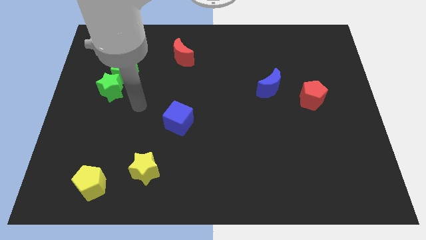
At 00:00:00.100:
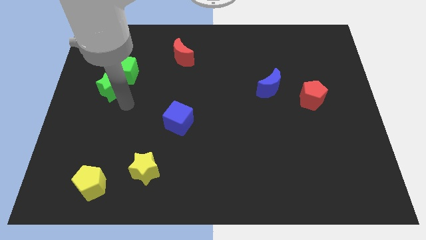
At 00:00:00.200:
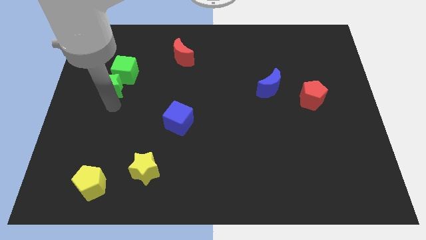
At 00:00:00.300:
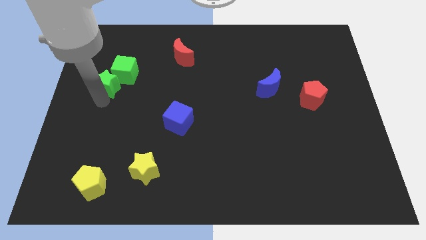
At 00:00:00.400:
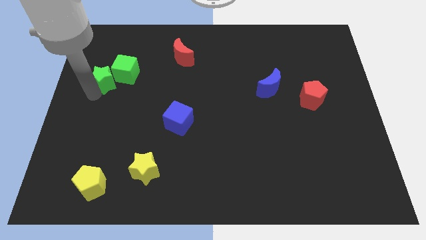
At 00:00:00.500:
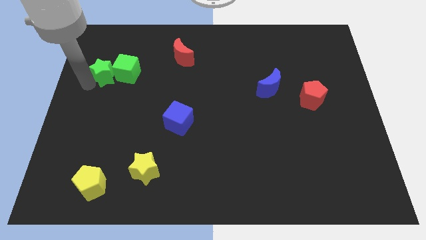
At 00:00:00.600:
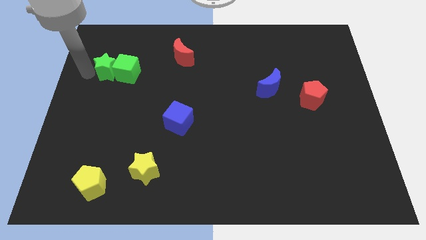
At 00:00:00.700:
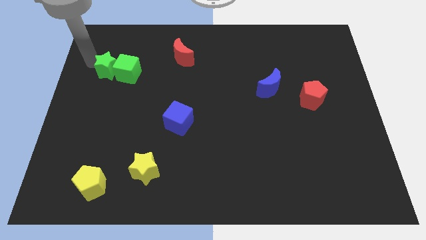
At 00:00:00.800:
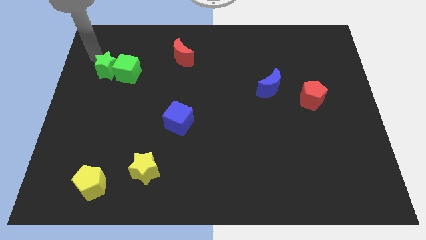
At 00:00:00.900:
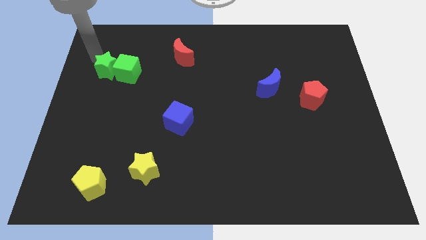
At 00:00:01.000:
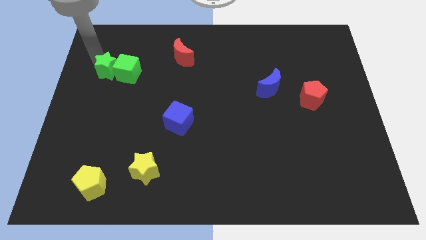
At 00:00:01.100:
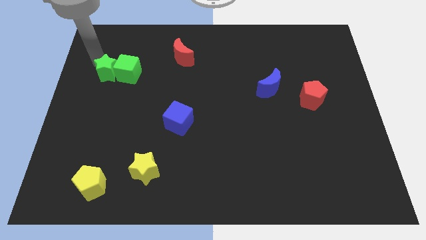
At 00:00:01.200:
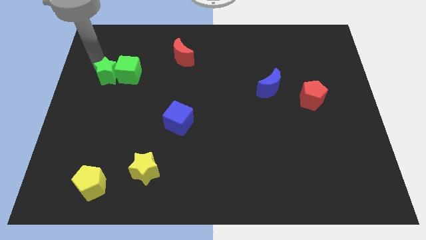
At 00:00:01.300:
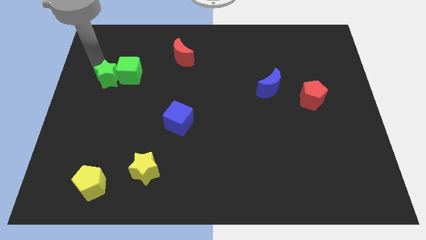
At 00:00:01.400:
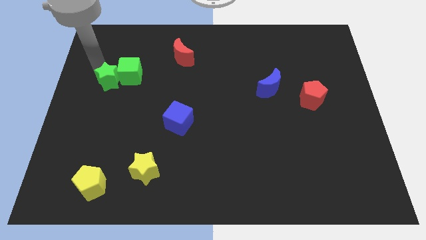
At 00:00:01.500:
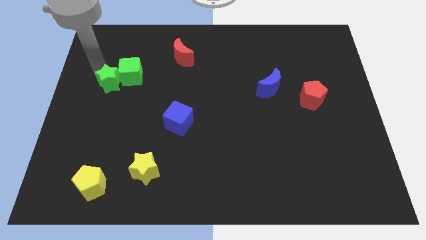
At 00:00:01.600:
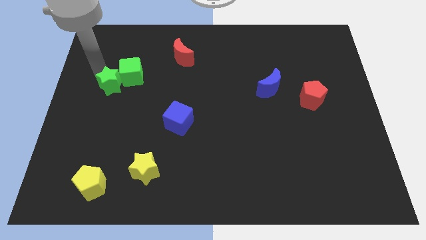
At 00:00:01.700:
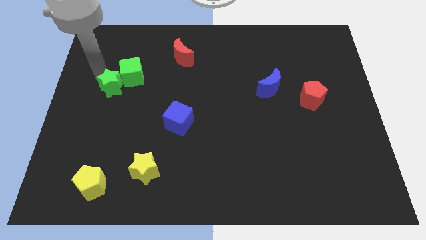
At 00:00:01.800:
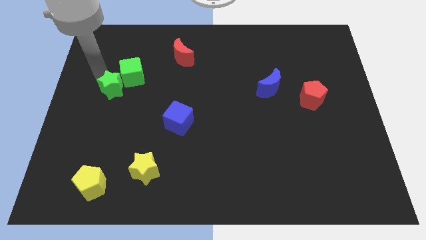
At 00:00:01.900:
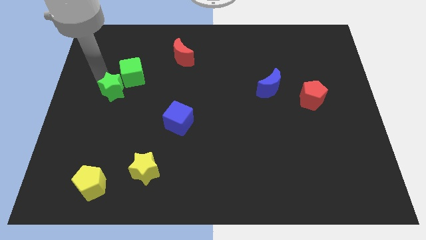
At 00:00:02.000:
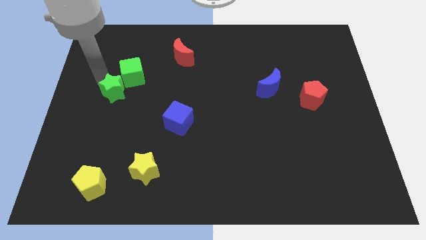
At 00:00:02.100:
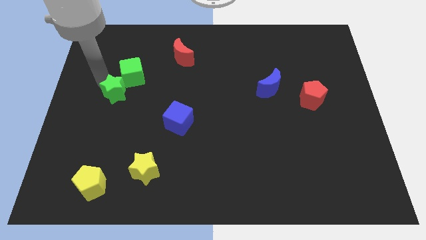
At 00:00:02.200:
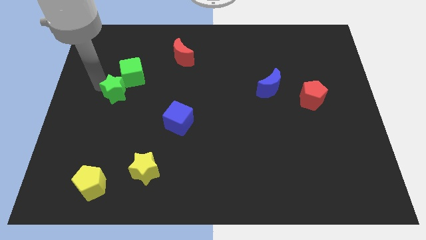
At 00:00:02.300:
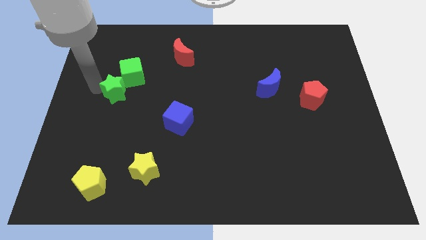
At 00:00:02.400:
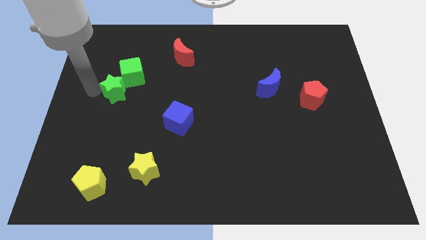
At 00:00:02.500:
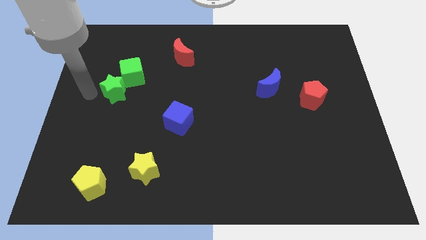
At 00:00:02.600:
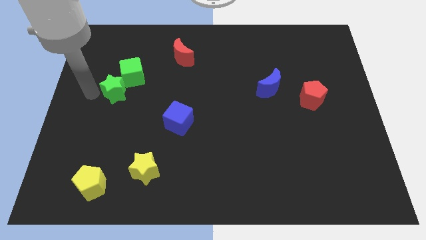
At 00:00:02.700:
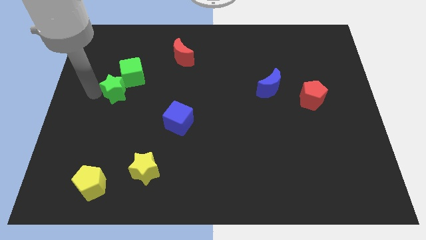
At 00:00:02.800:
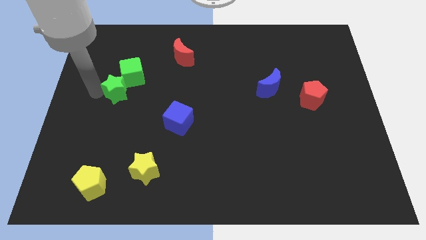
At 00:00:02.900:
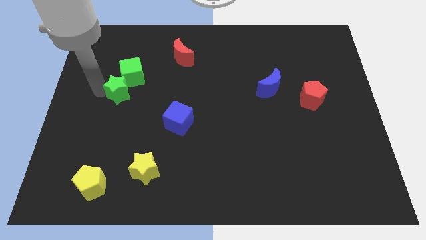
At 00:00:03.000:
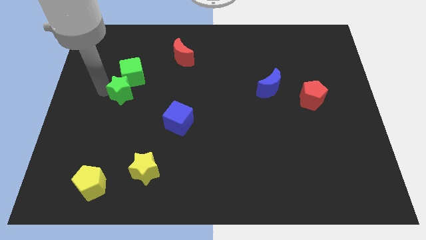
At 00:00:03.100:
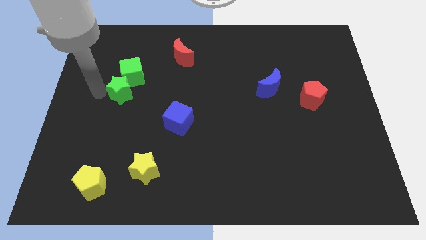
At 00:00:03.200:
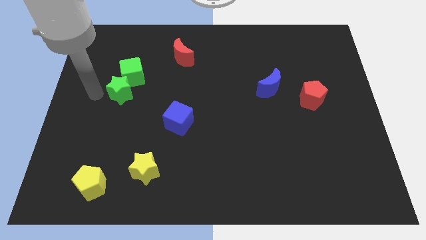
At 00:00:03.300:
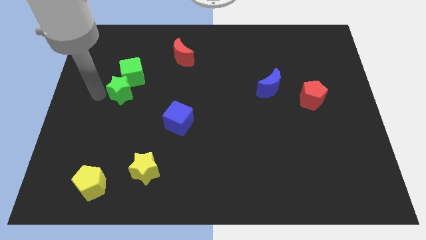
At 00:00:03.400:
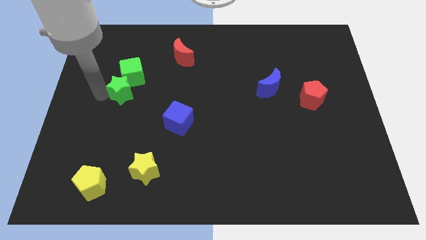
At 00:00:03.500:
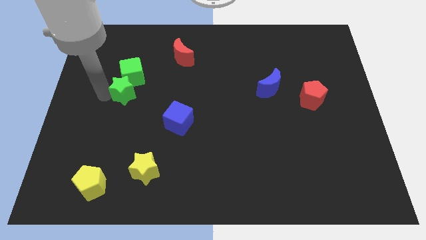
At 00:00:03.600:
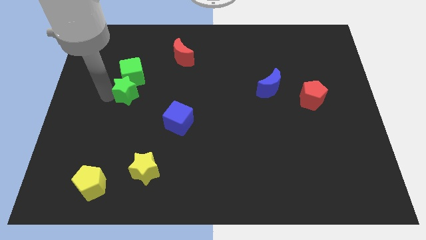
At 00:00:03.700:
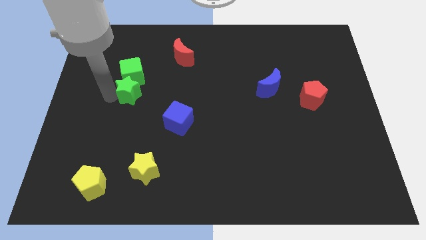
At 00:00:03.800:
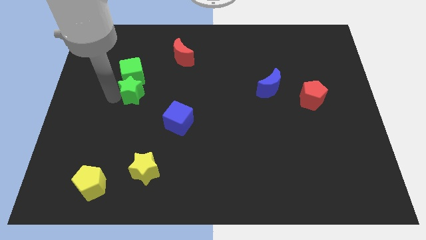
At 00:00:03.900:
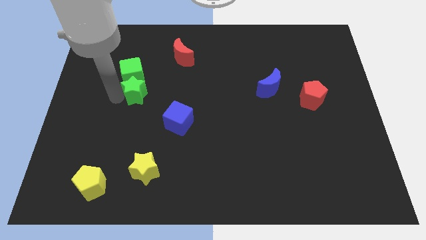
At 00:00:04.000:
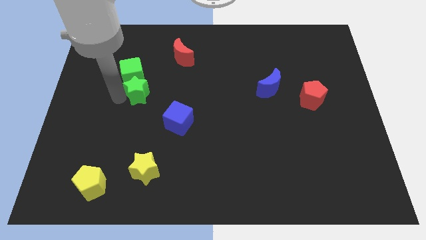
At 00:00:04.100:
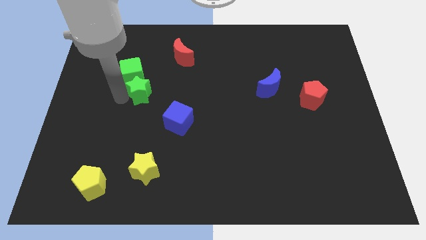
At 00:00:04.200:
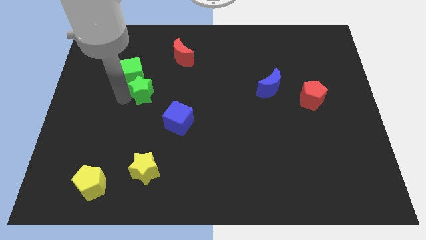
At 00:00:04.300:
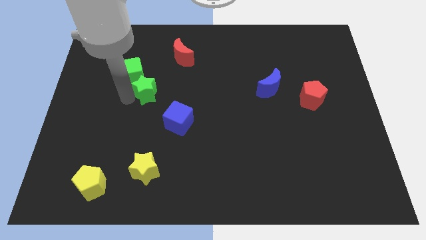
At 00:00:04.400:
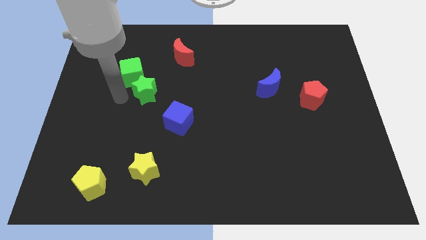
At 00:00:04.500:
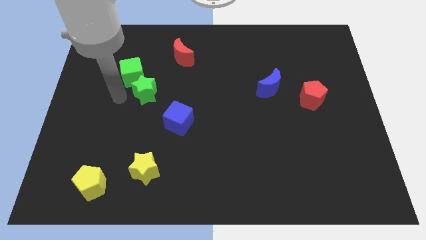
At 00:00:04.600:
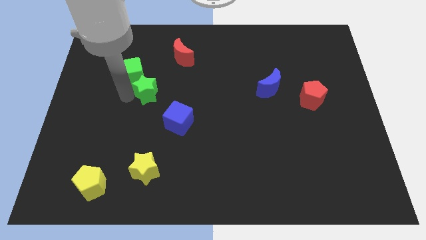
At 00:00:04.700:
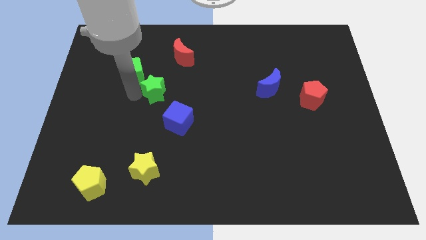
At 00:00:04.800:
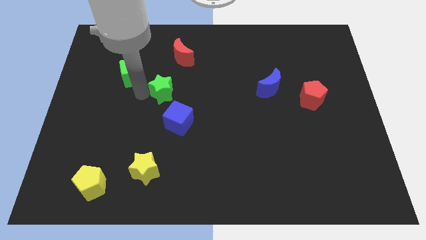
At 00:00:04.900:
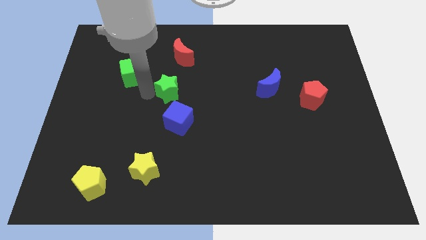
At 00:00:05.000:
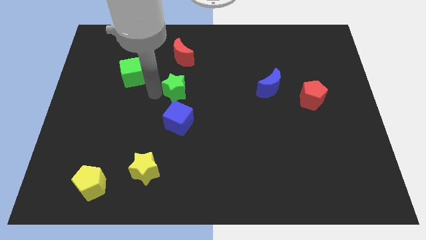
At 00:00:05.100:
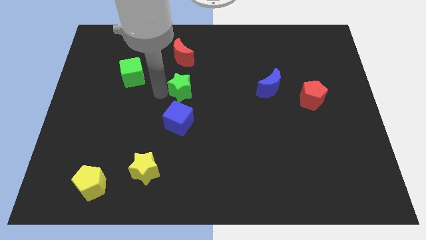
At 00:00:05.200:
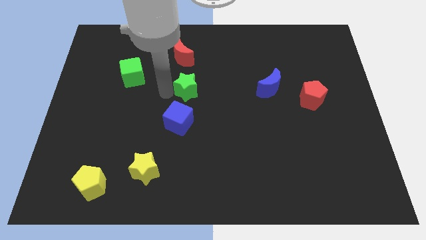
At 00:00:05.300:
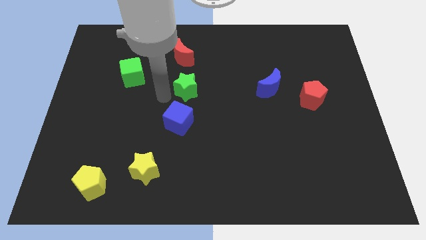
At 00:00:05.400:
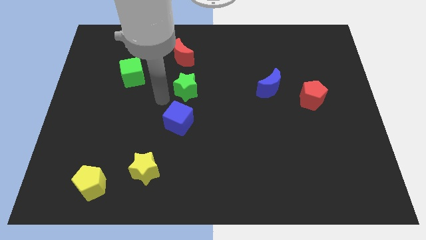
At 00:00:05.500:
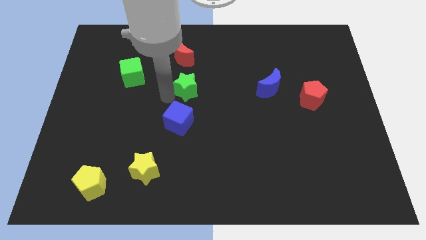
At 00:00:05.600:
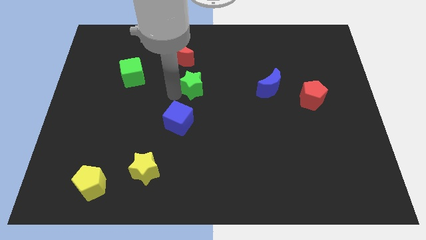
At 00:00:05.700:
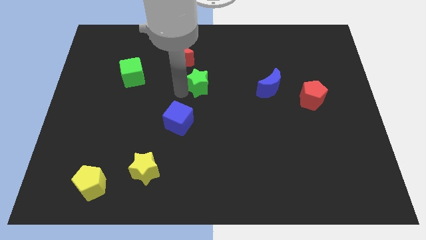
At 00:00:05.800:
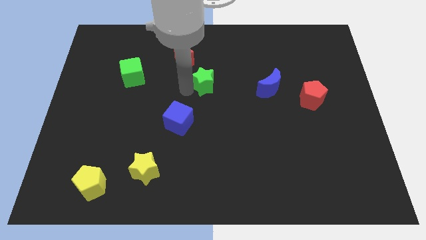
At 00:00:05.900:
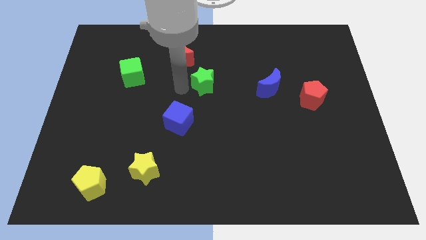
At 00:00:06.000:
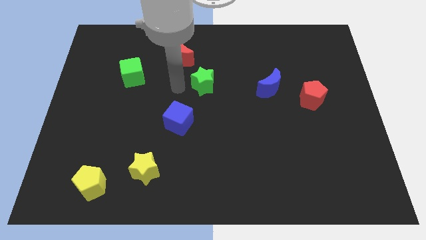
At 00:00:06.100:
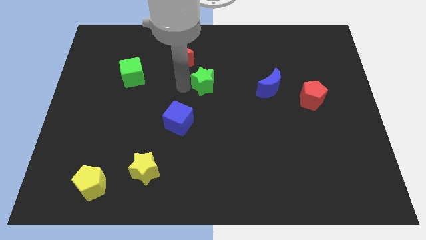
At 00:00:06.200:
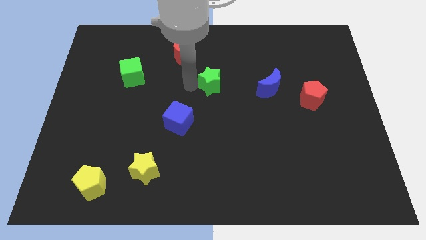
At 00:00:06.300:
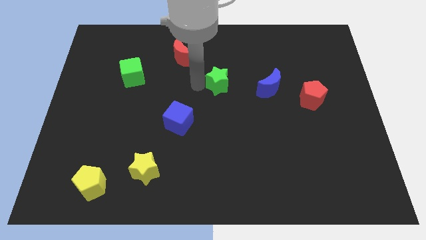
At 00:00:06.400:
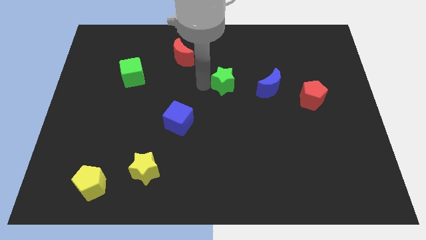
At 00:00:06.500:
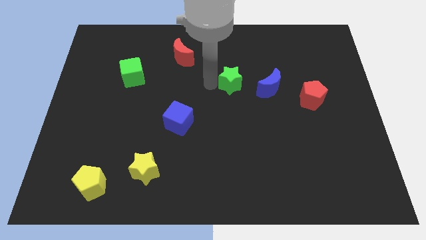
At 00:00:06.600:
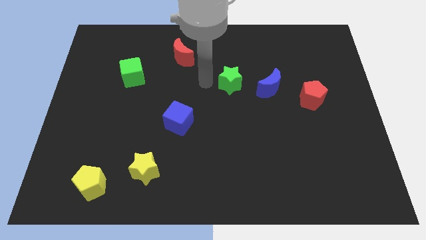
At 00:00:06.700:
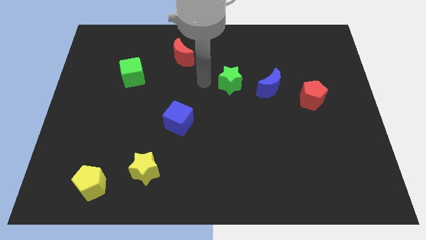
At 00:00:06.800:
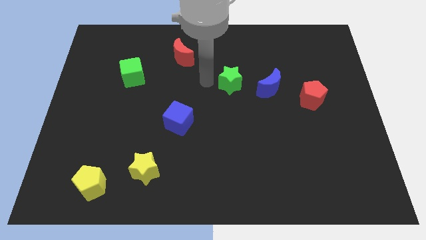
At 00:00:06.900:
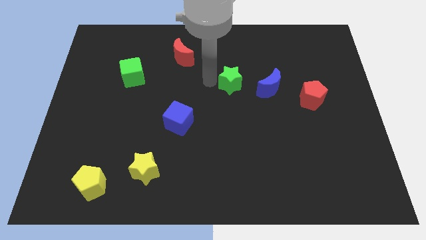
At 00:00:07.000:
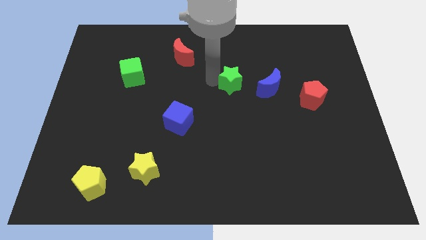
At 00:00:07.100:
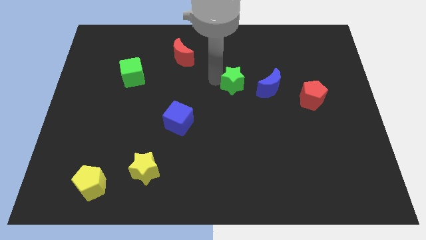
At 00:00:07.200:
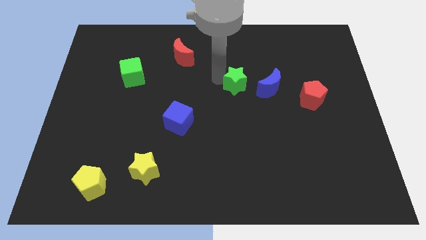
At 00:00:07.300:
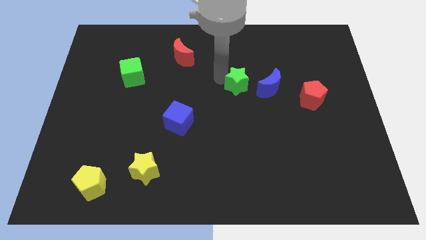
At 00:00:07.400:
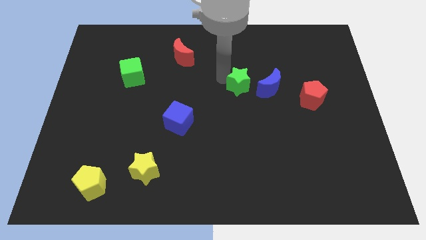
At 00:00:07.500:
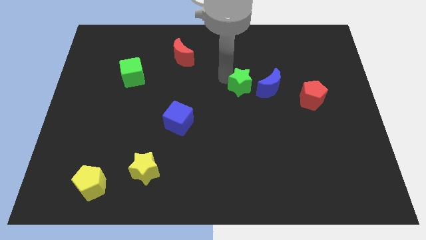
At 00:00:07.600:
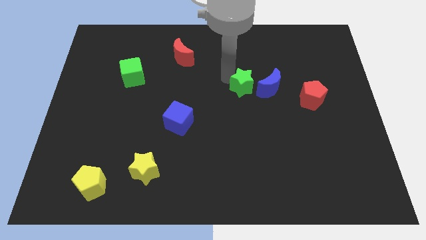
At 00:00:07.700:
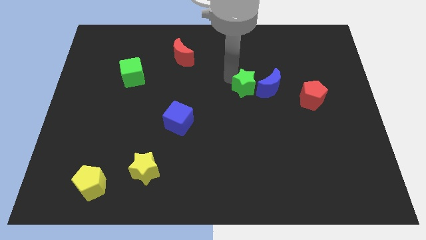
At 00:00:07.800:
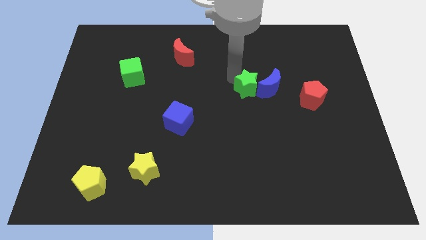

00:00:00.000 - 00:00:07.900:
put the green star towards the blue moon
